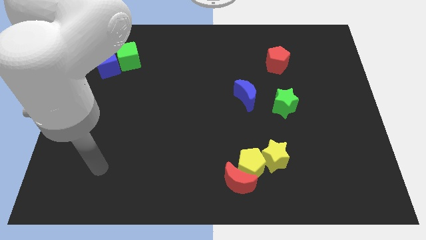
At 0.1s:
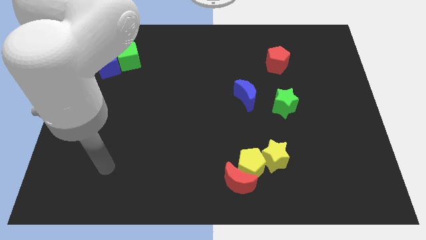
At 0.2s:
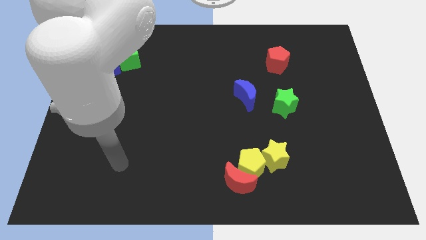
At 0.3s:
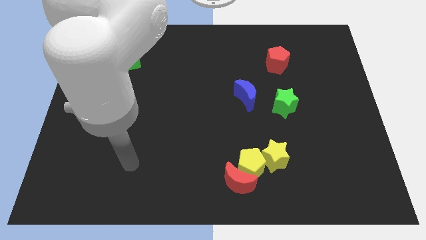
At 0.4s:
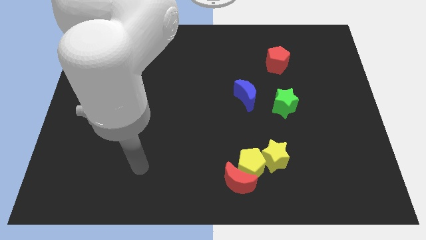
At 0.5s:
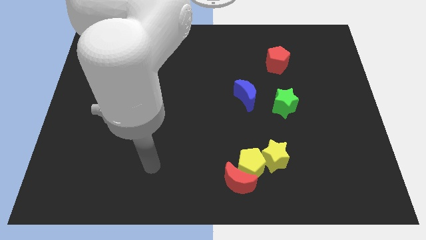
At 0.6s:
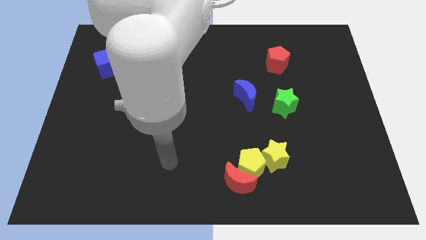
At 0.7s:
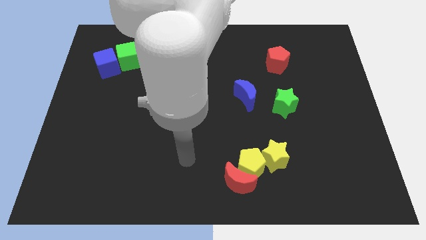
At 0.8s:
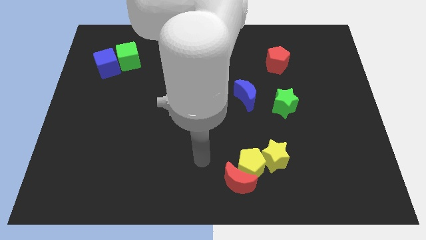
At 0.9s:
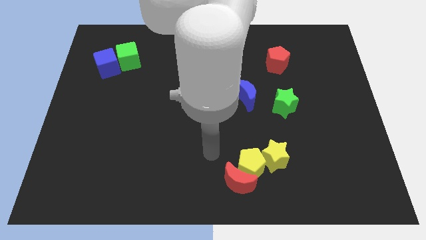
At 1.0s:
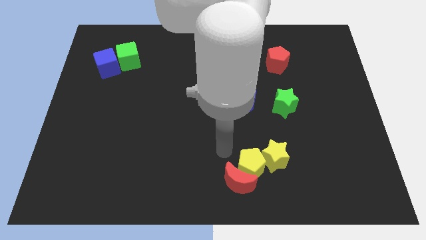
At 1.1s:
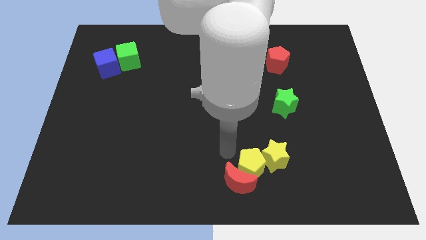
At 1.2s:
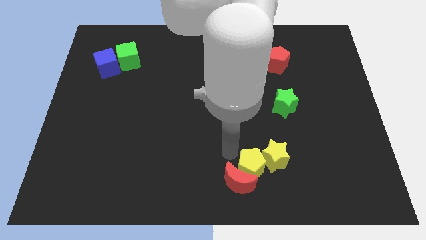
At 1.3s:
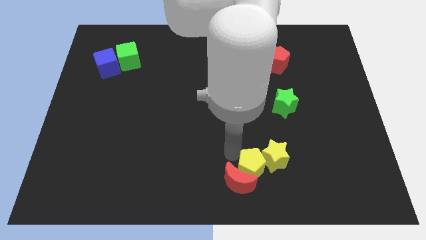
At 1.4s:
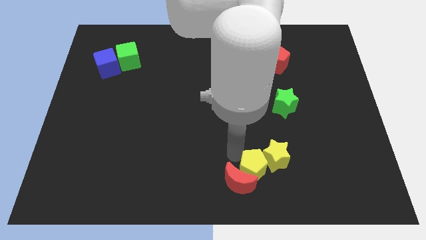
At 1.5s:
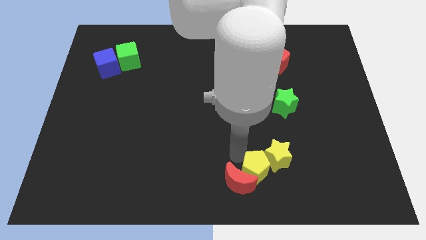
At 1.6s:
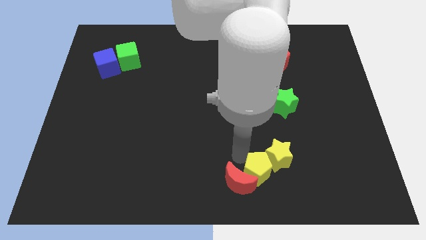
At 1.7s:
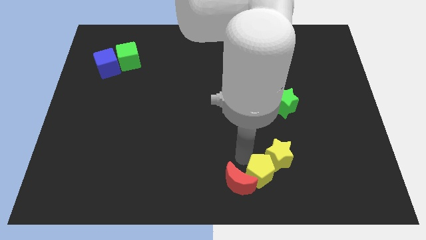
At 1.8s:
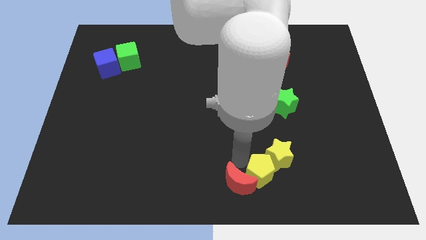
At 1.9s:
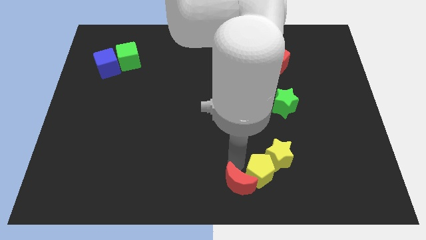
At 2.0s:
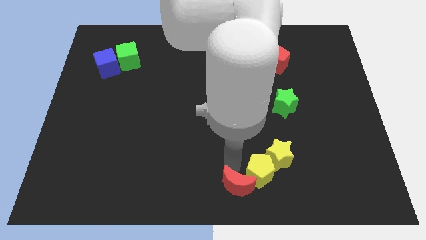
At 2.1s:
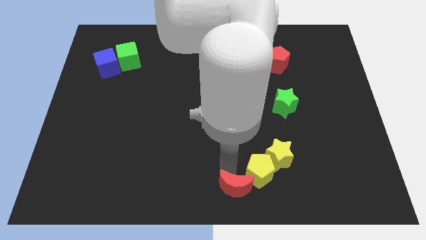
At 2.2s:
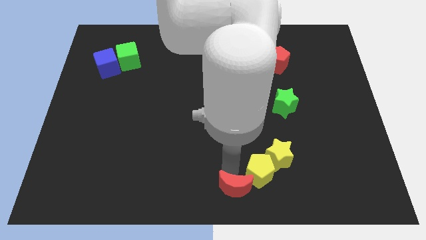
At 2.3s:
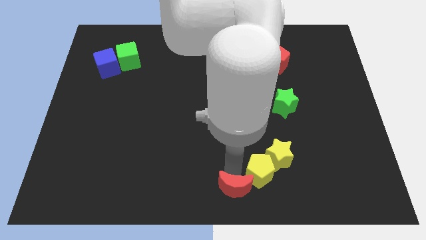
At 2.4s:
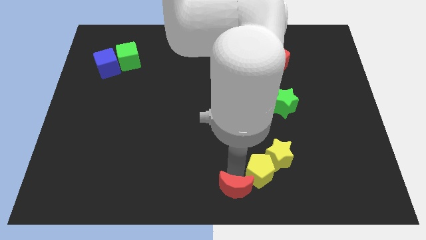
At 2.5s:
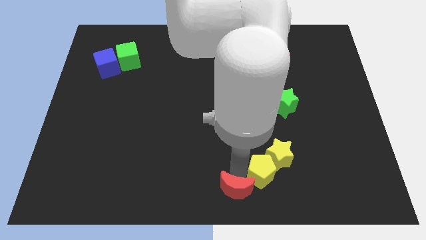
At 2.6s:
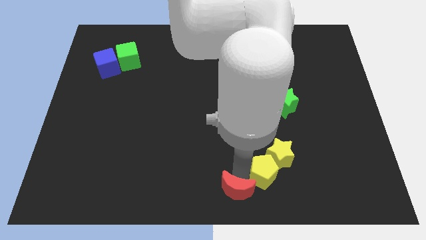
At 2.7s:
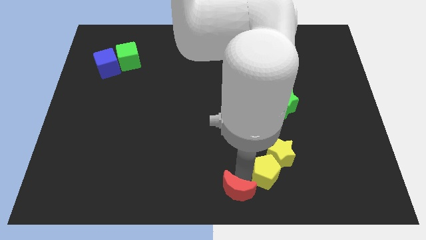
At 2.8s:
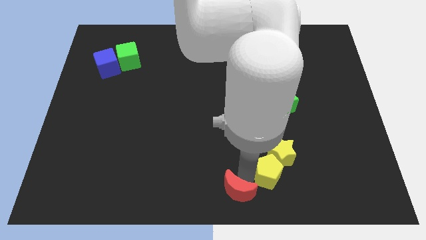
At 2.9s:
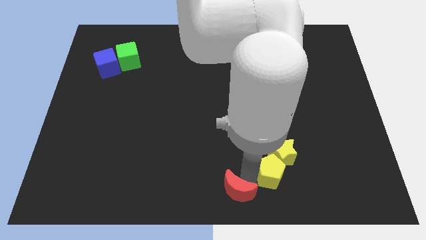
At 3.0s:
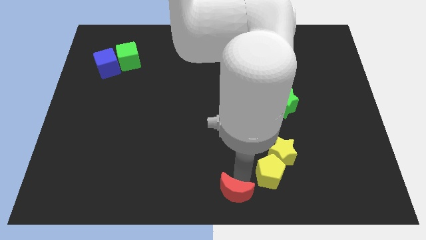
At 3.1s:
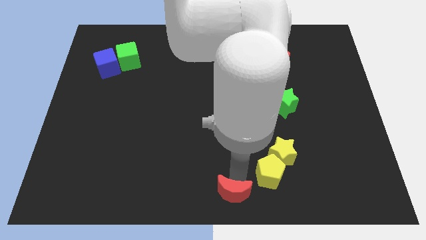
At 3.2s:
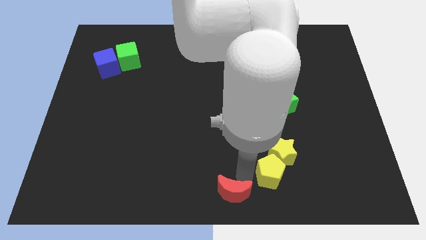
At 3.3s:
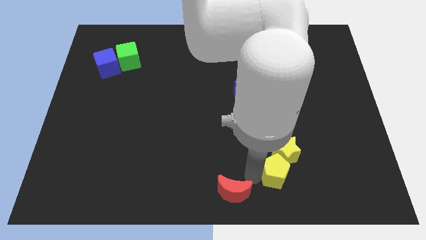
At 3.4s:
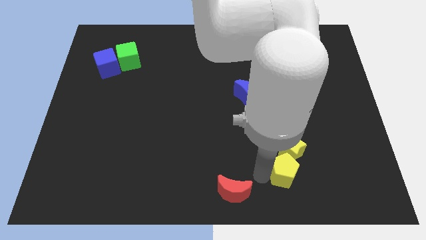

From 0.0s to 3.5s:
push the yellow pentagon right a little

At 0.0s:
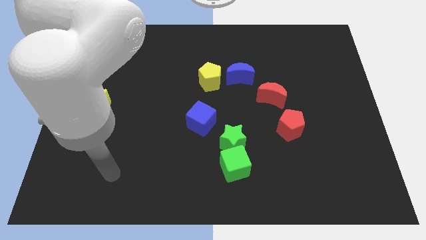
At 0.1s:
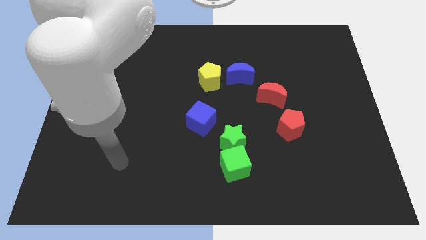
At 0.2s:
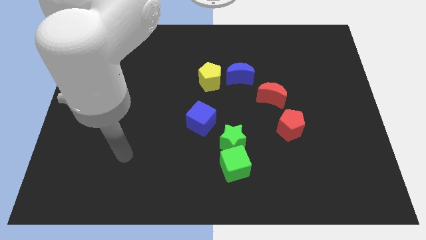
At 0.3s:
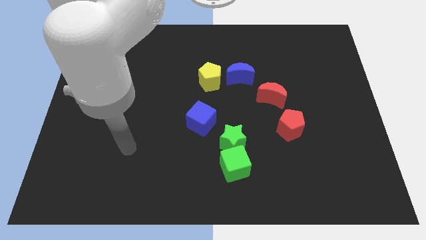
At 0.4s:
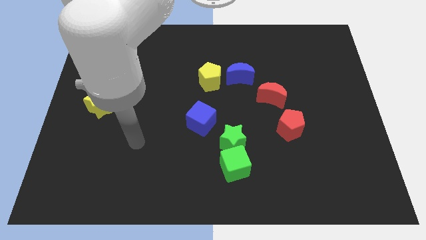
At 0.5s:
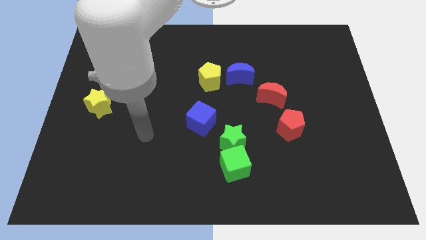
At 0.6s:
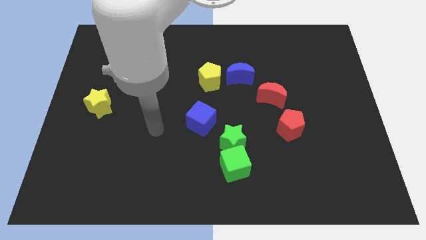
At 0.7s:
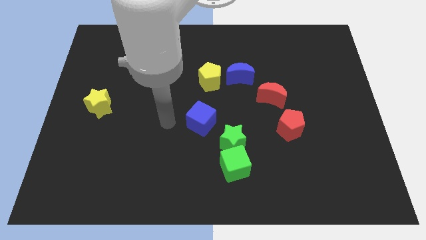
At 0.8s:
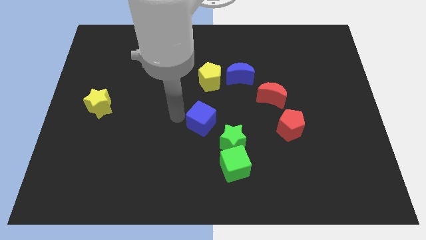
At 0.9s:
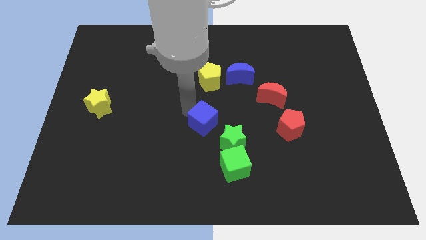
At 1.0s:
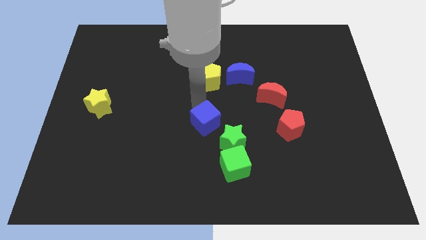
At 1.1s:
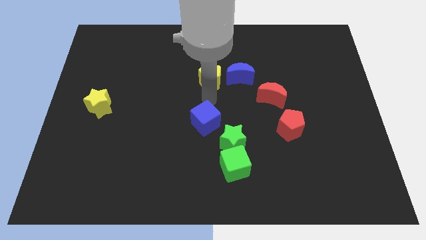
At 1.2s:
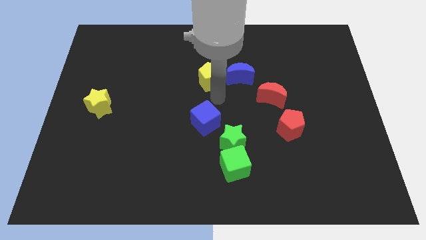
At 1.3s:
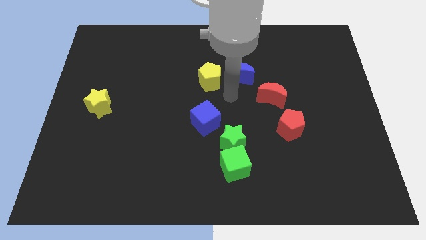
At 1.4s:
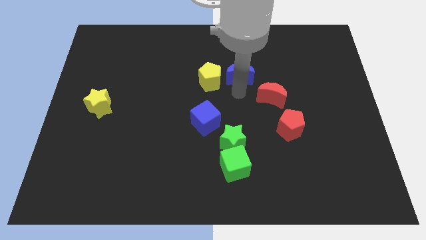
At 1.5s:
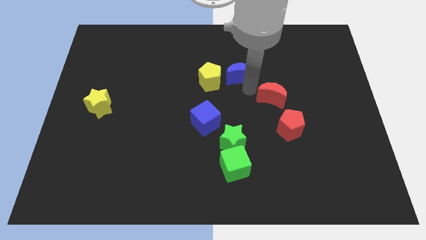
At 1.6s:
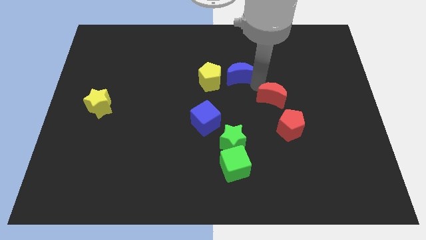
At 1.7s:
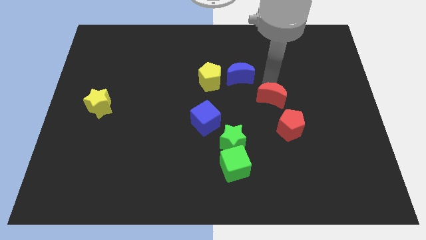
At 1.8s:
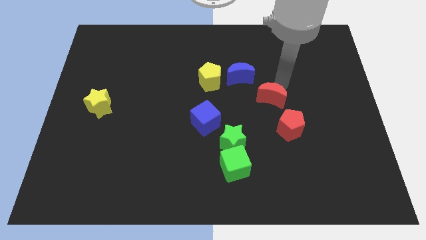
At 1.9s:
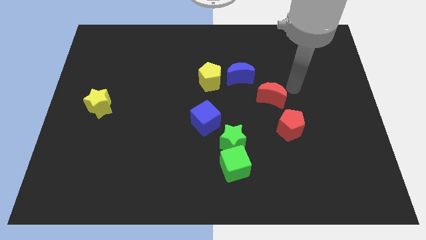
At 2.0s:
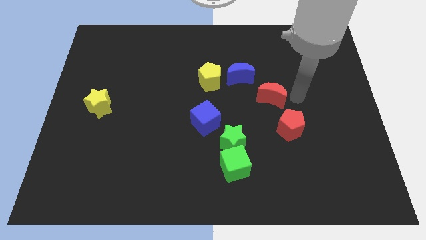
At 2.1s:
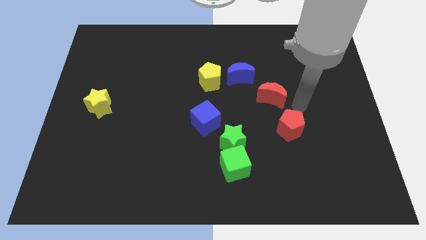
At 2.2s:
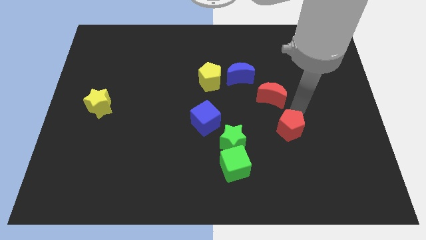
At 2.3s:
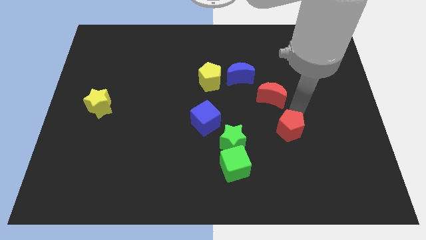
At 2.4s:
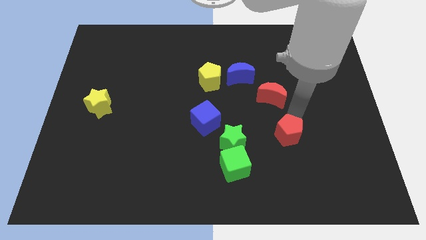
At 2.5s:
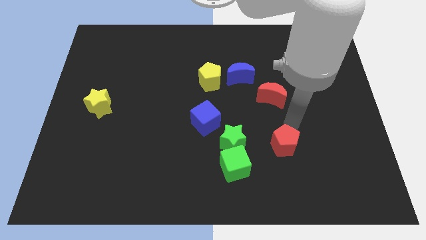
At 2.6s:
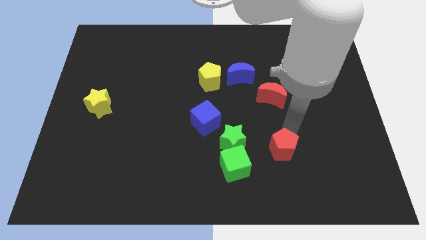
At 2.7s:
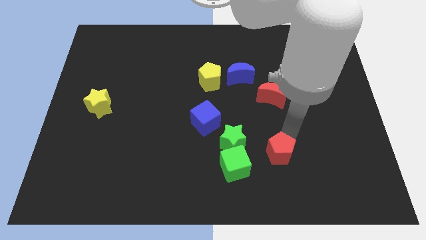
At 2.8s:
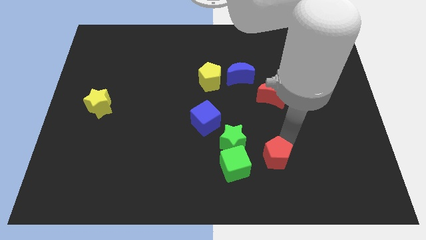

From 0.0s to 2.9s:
slide the red pentagon a little diagonally down and to the left

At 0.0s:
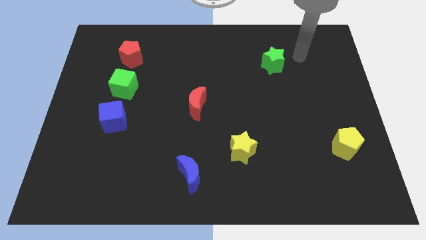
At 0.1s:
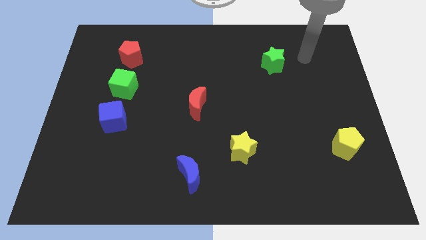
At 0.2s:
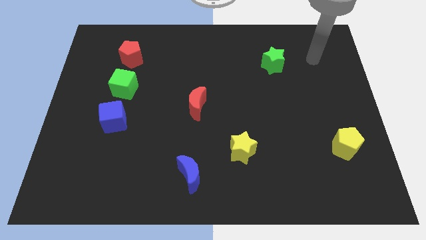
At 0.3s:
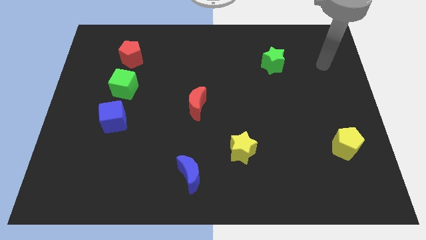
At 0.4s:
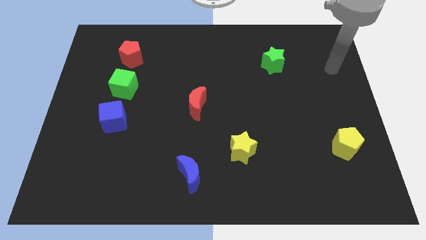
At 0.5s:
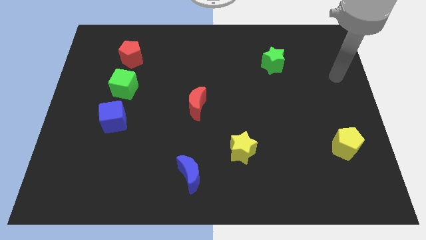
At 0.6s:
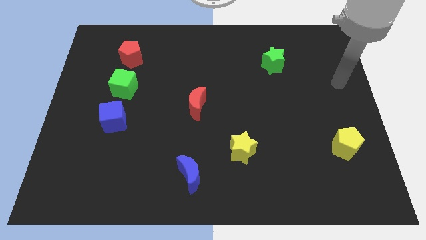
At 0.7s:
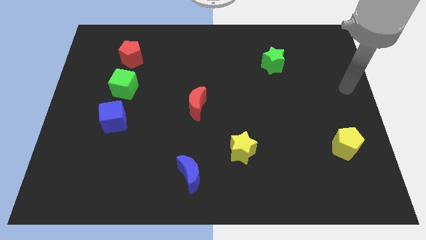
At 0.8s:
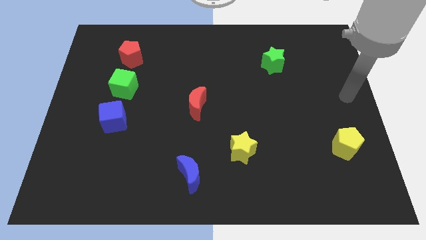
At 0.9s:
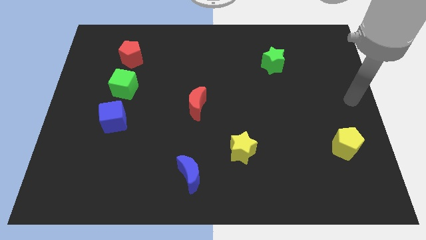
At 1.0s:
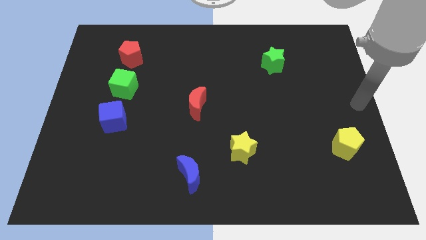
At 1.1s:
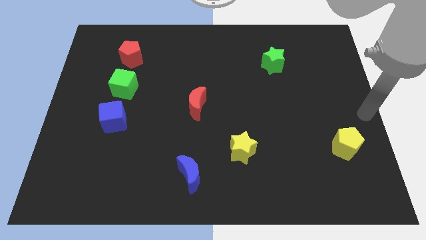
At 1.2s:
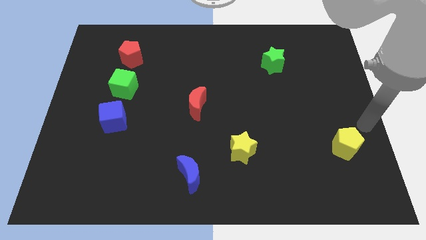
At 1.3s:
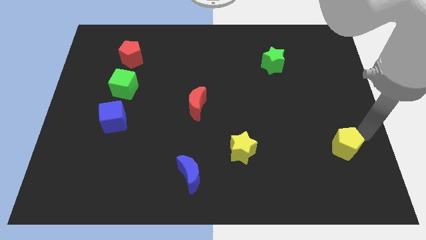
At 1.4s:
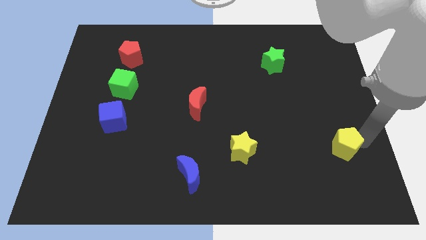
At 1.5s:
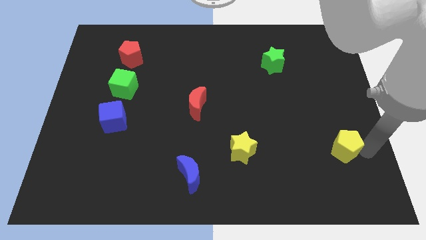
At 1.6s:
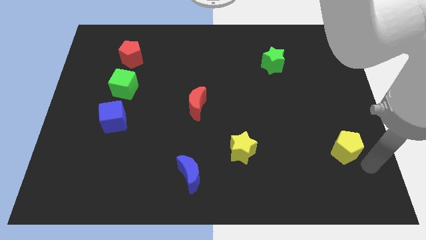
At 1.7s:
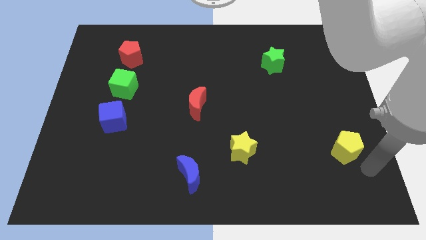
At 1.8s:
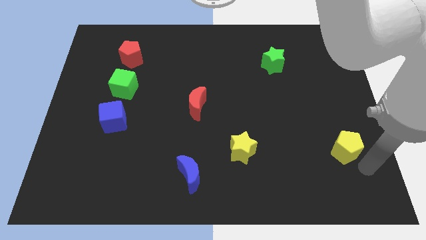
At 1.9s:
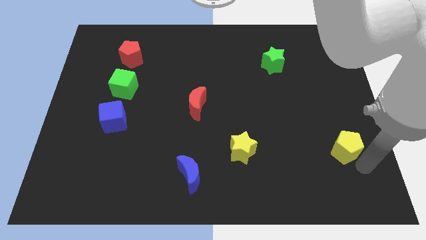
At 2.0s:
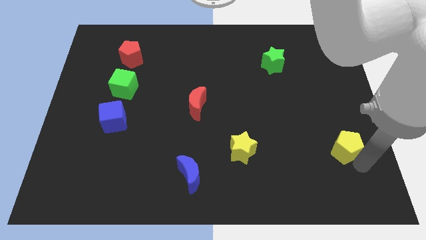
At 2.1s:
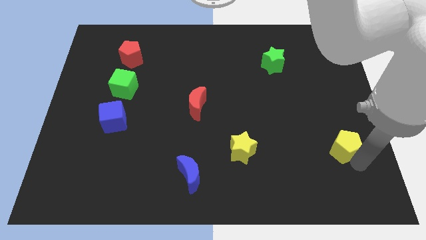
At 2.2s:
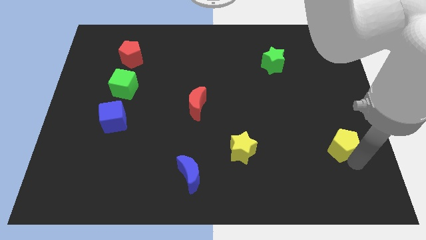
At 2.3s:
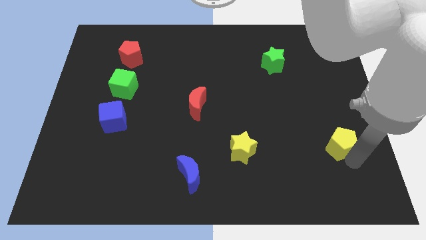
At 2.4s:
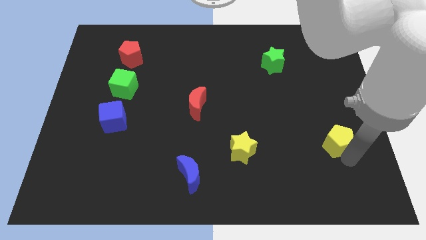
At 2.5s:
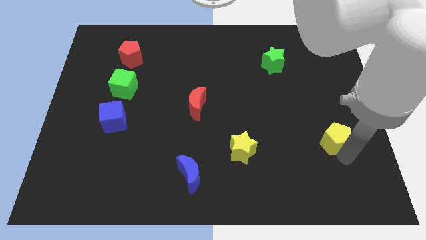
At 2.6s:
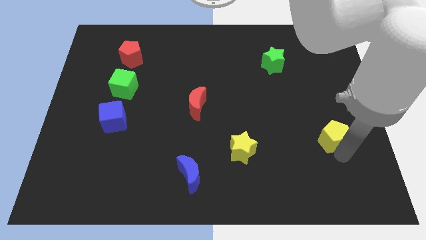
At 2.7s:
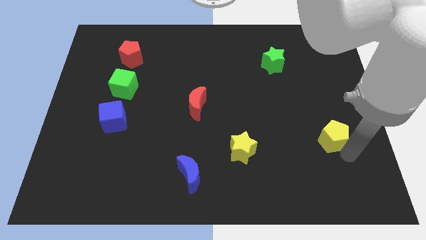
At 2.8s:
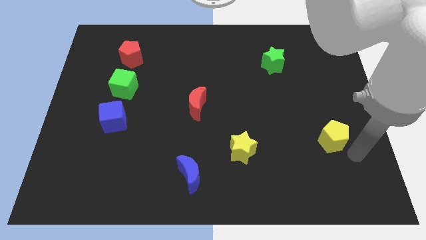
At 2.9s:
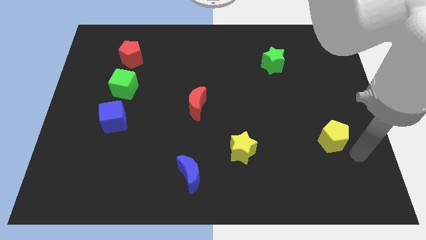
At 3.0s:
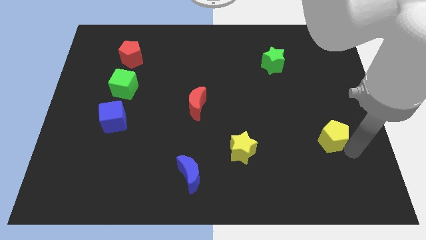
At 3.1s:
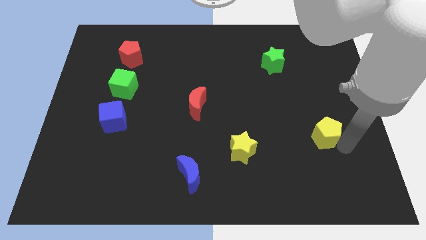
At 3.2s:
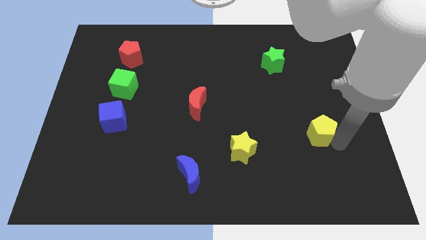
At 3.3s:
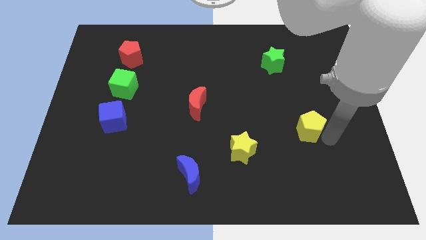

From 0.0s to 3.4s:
push the yellow pentagon somewhat upwards and to the left diagonally
